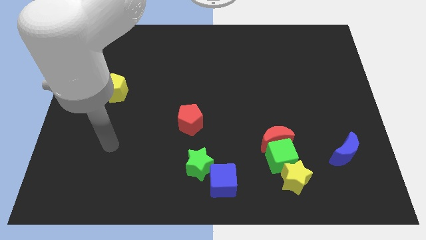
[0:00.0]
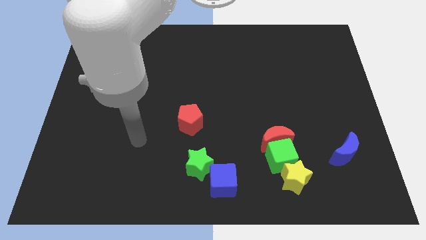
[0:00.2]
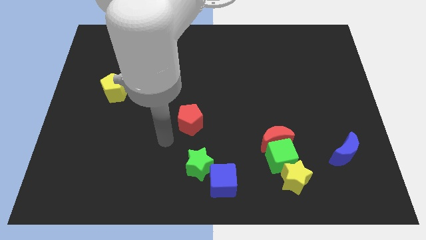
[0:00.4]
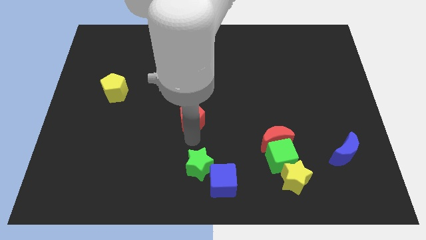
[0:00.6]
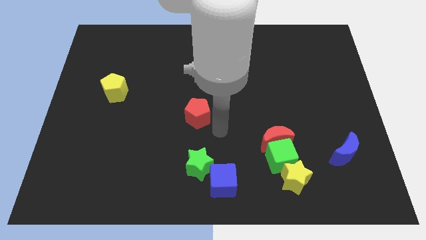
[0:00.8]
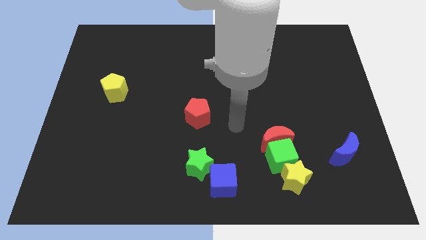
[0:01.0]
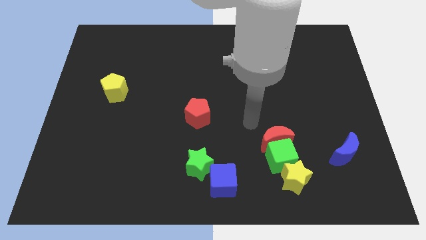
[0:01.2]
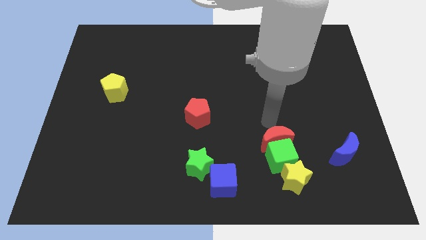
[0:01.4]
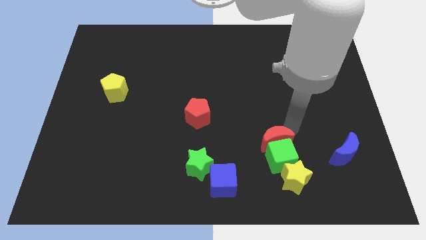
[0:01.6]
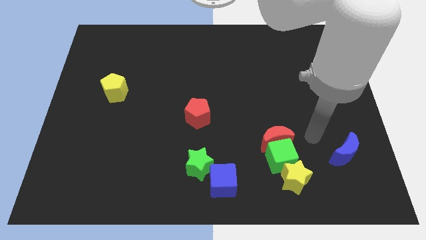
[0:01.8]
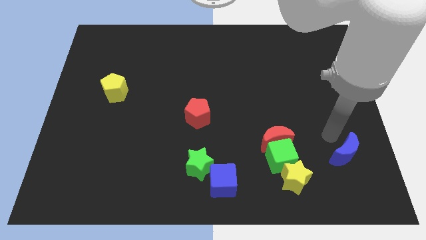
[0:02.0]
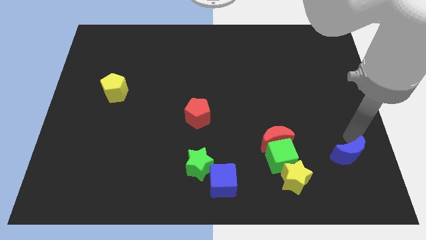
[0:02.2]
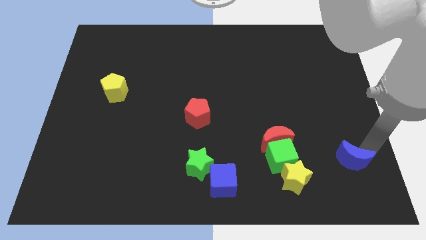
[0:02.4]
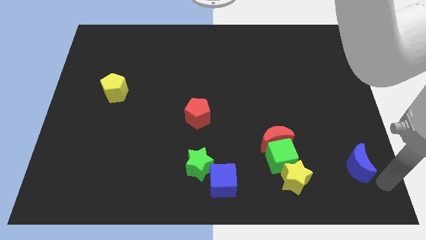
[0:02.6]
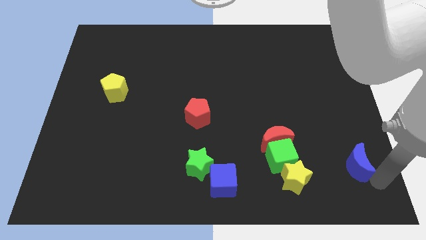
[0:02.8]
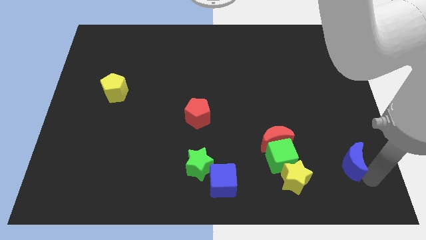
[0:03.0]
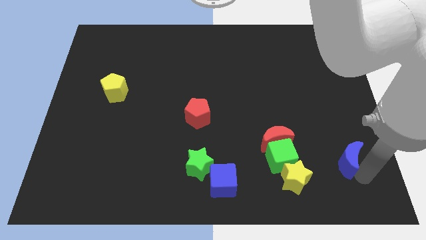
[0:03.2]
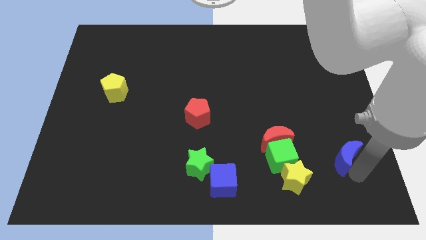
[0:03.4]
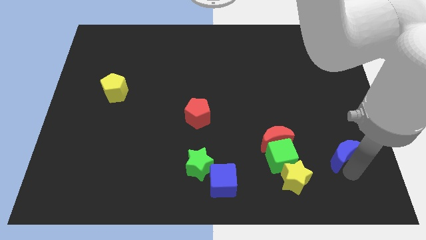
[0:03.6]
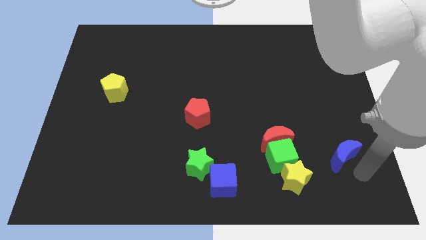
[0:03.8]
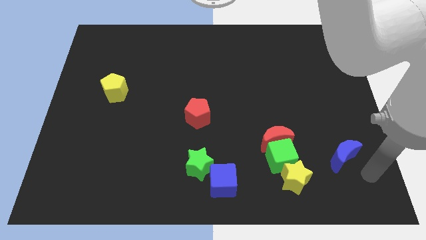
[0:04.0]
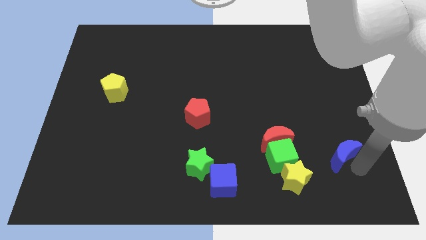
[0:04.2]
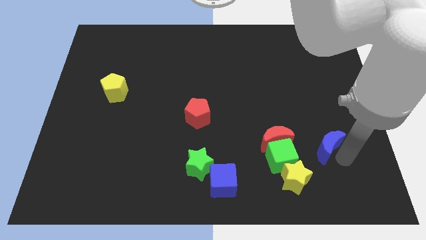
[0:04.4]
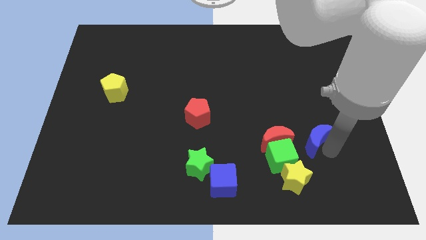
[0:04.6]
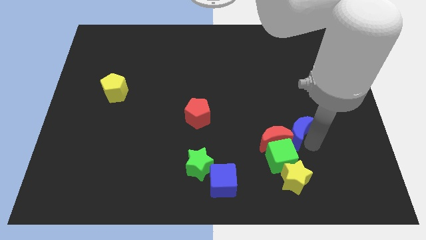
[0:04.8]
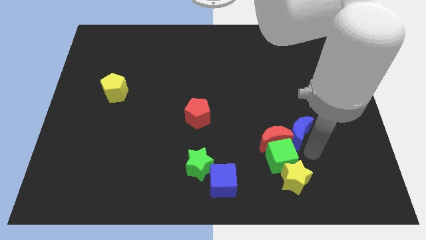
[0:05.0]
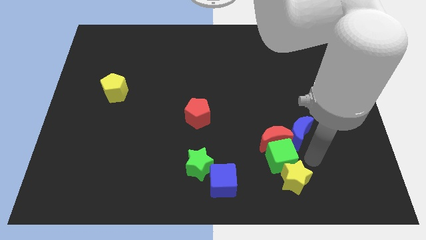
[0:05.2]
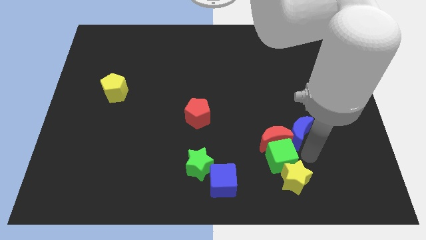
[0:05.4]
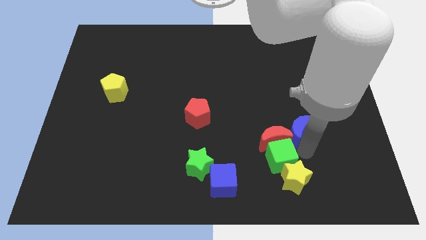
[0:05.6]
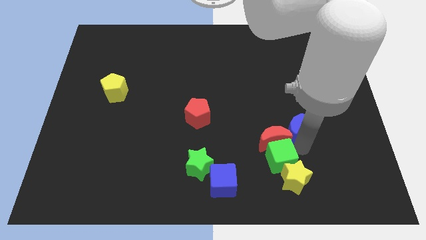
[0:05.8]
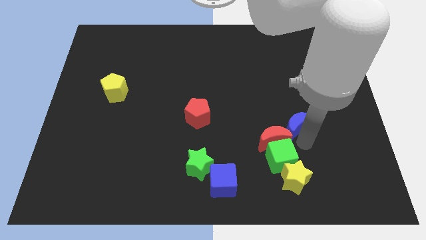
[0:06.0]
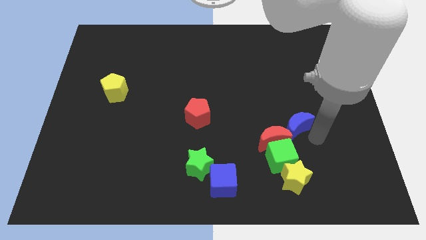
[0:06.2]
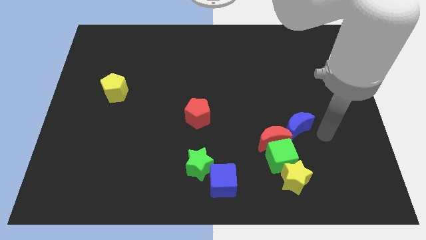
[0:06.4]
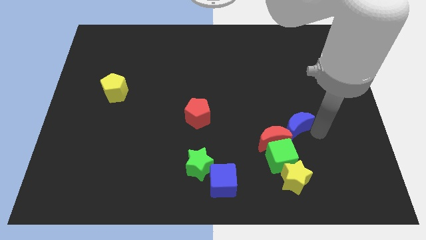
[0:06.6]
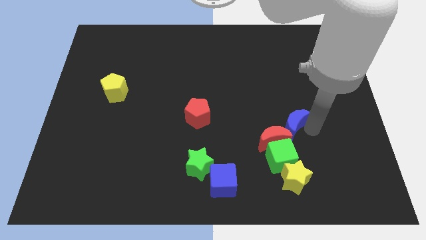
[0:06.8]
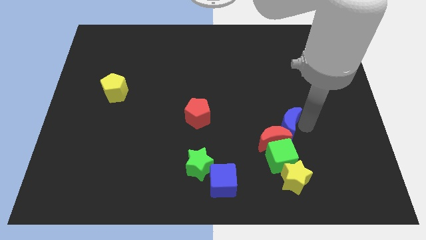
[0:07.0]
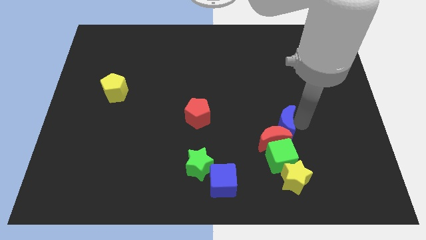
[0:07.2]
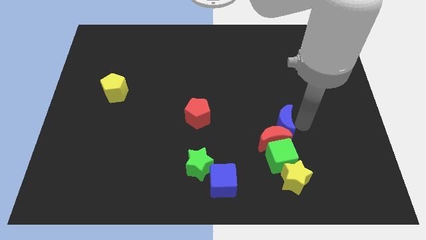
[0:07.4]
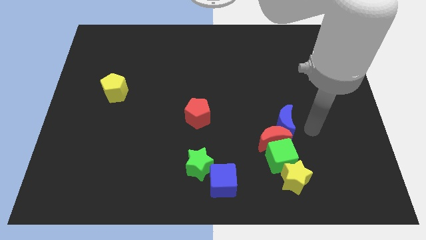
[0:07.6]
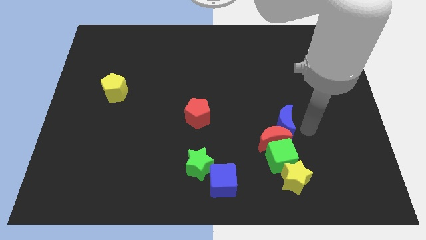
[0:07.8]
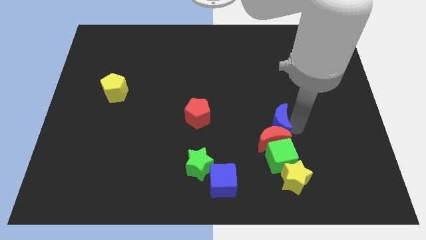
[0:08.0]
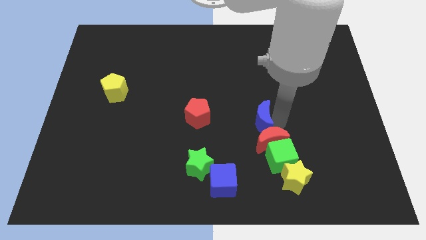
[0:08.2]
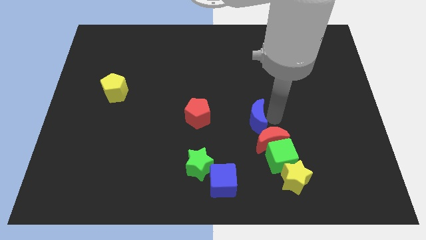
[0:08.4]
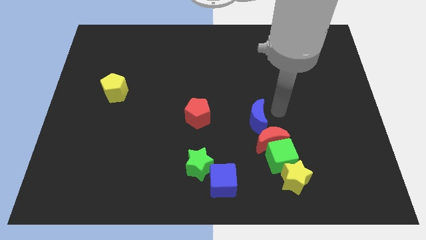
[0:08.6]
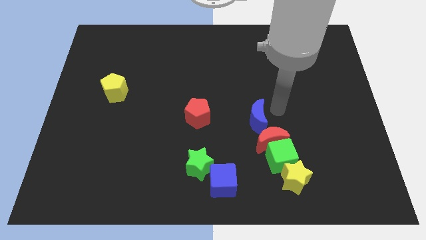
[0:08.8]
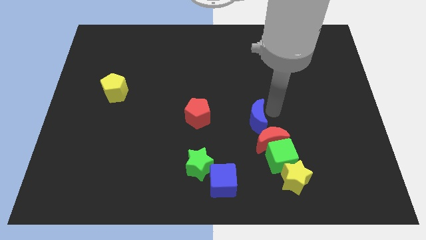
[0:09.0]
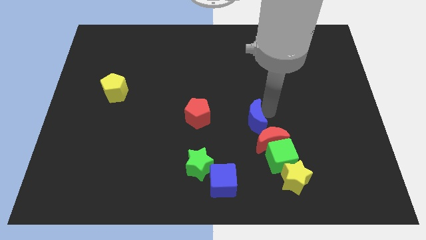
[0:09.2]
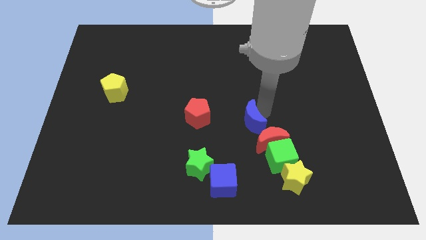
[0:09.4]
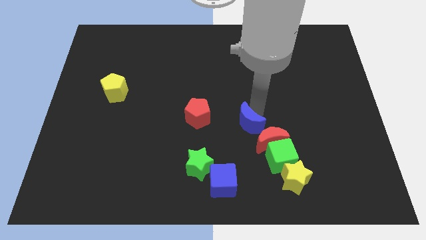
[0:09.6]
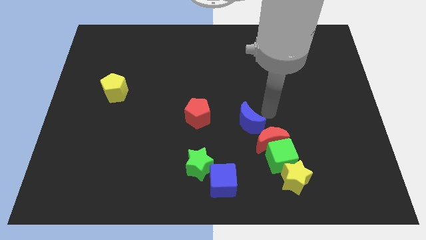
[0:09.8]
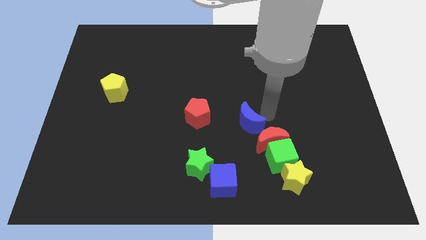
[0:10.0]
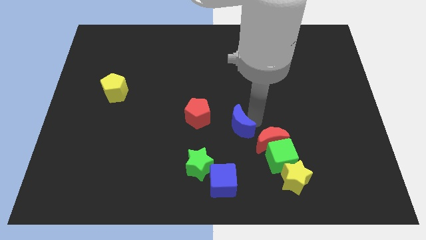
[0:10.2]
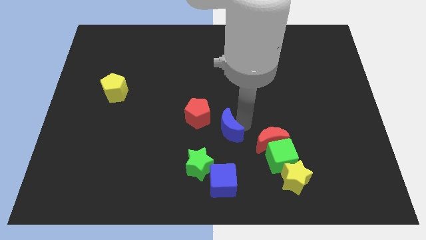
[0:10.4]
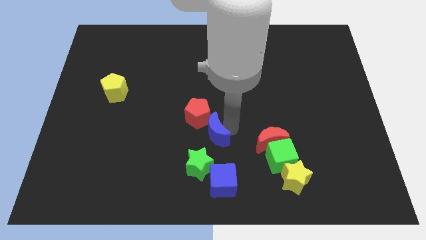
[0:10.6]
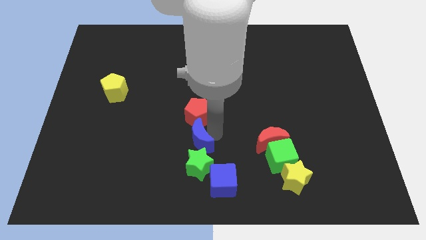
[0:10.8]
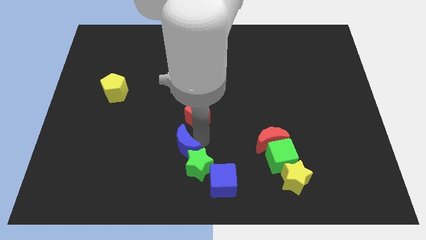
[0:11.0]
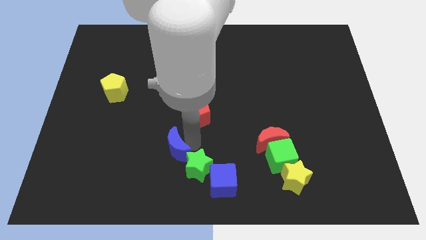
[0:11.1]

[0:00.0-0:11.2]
slide the blue moon to the left of the green star

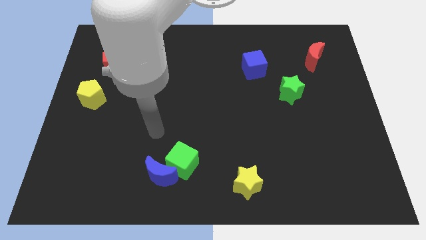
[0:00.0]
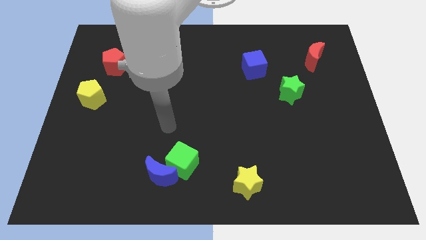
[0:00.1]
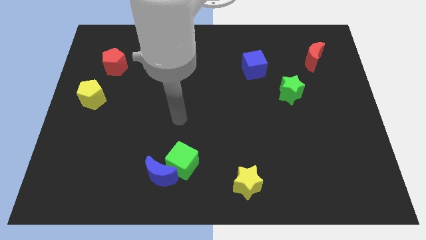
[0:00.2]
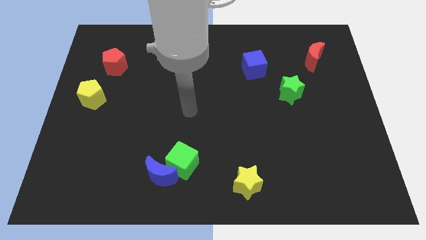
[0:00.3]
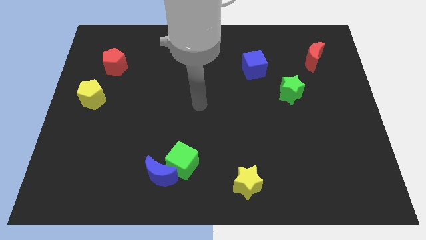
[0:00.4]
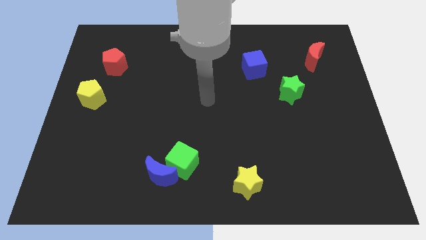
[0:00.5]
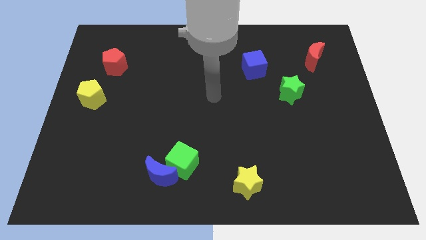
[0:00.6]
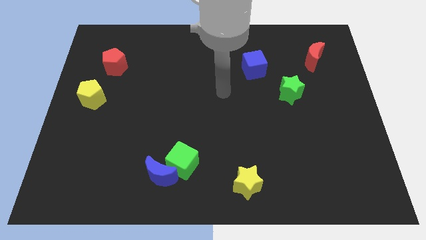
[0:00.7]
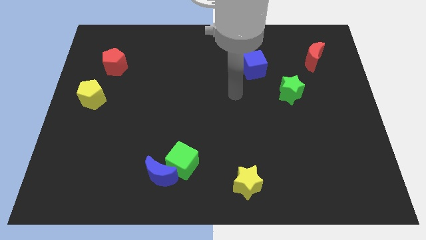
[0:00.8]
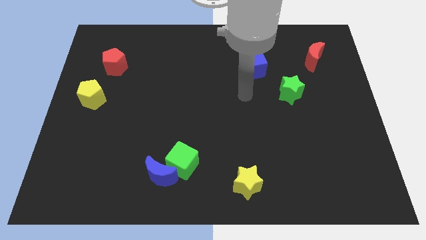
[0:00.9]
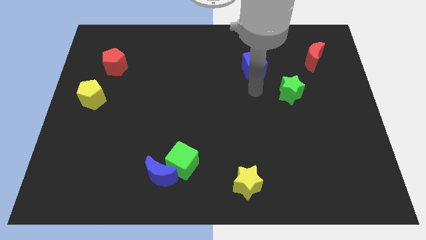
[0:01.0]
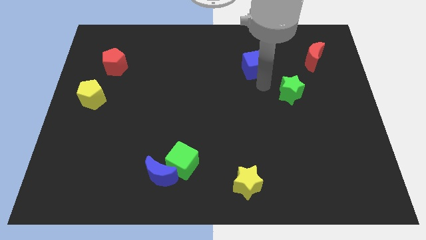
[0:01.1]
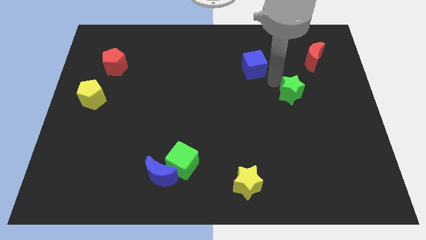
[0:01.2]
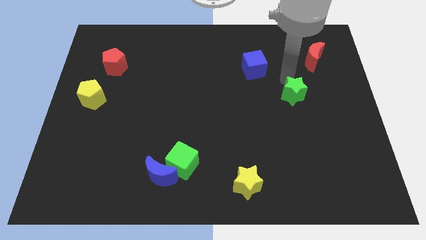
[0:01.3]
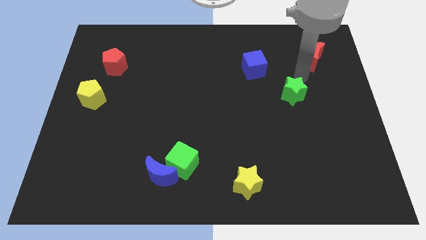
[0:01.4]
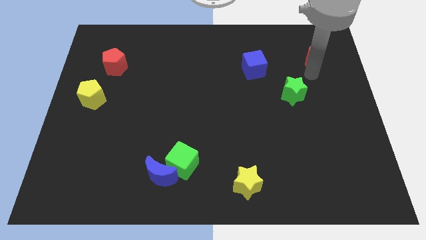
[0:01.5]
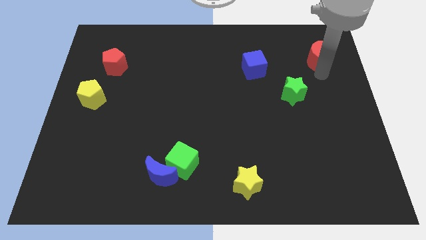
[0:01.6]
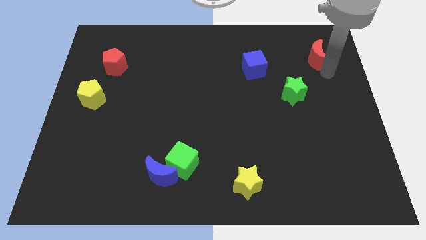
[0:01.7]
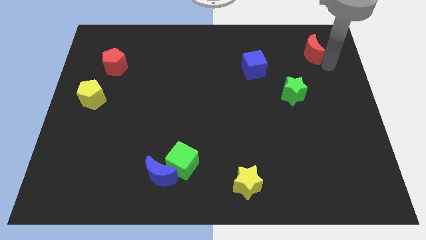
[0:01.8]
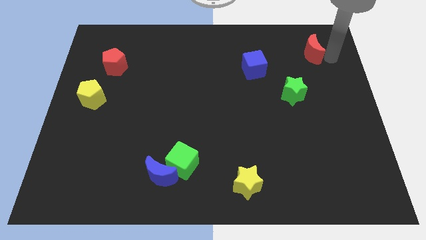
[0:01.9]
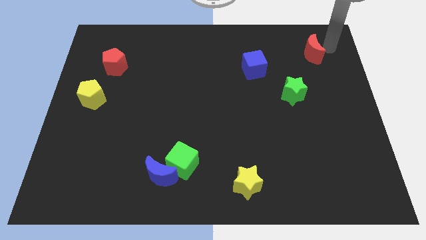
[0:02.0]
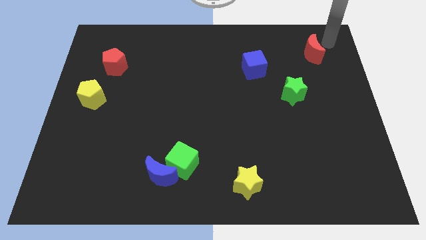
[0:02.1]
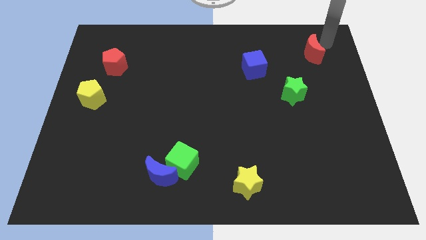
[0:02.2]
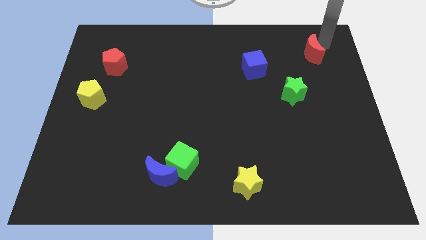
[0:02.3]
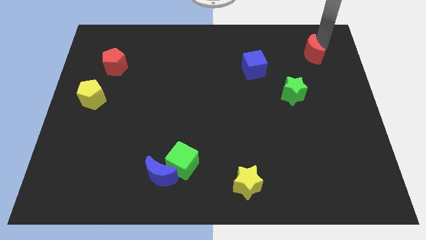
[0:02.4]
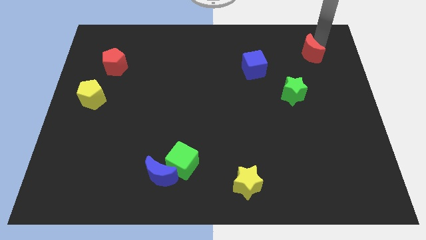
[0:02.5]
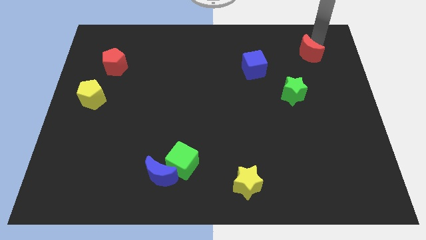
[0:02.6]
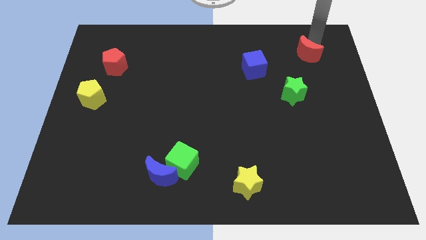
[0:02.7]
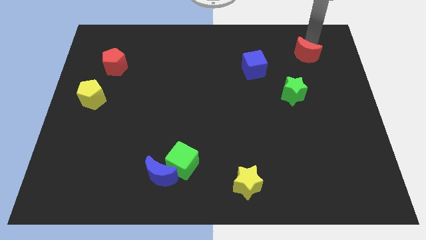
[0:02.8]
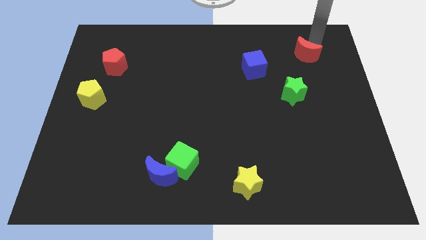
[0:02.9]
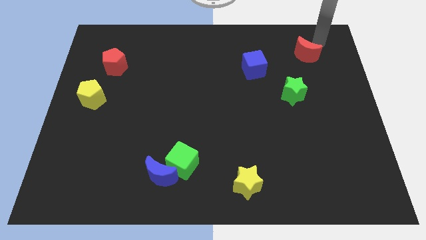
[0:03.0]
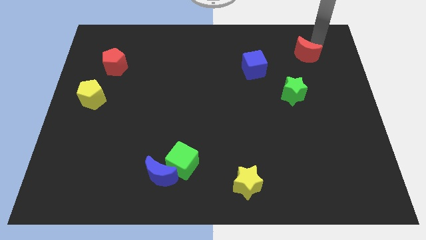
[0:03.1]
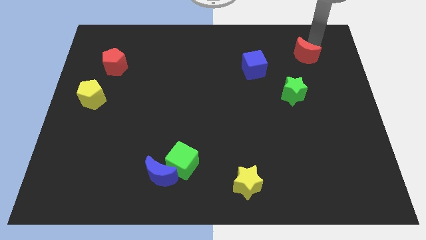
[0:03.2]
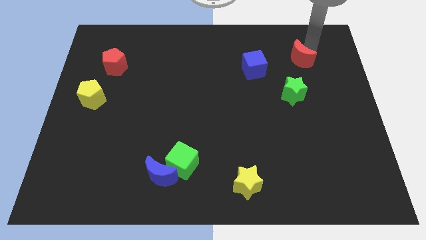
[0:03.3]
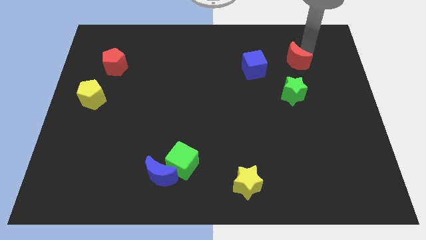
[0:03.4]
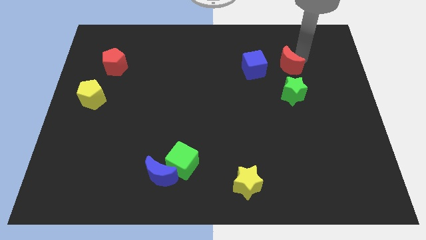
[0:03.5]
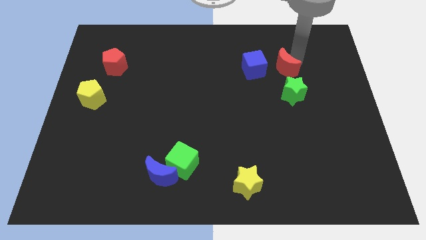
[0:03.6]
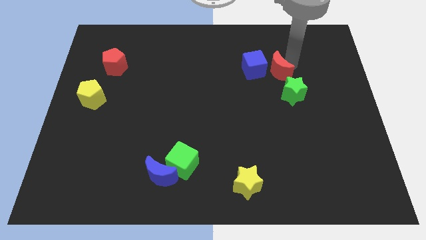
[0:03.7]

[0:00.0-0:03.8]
slide the red moon diagonally up and to the left of the green star
